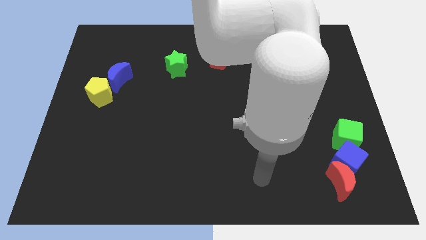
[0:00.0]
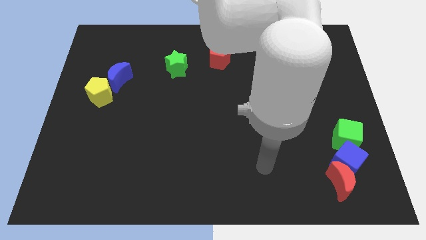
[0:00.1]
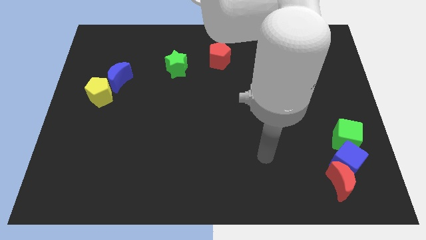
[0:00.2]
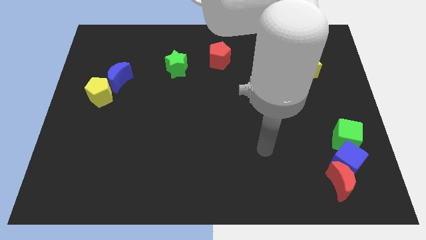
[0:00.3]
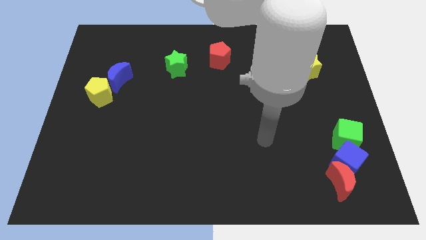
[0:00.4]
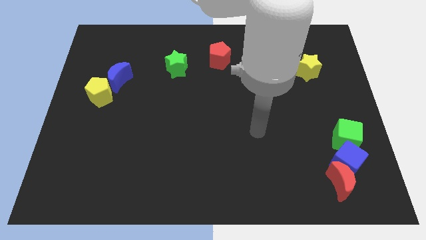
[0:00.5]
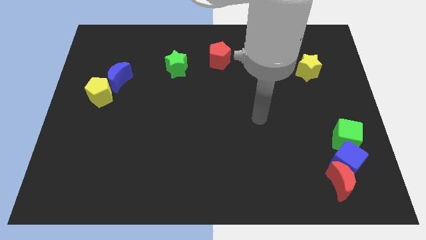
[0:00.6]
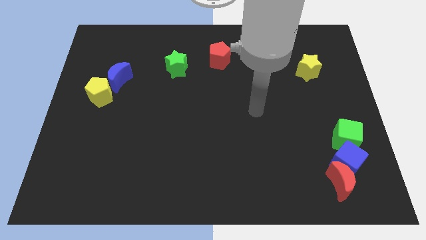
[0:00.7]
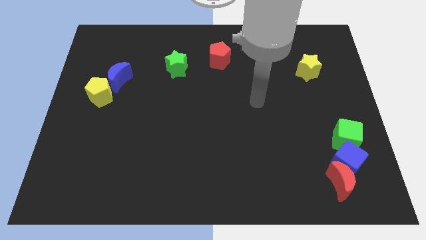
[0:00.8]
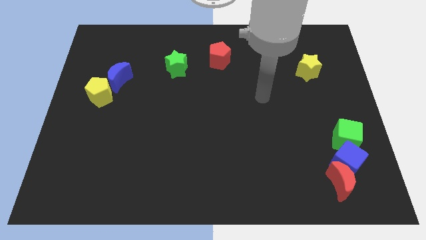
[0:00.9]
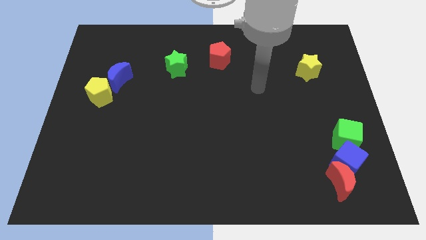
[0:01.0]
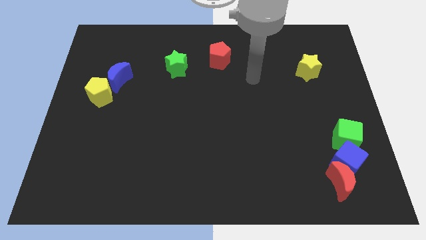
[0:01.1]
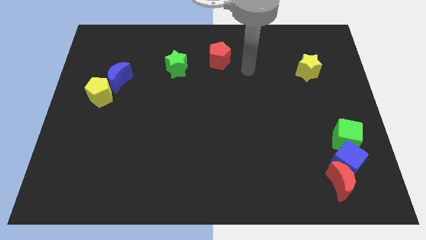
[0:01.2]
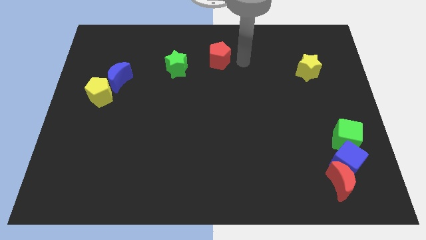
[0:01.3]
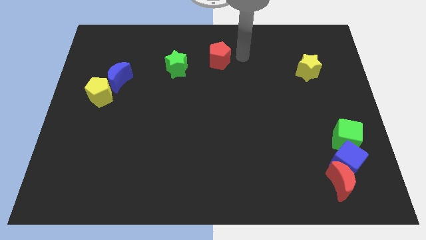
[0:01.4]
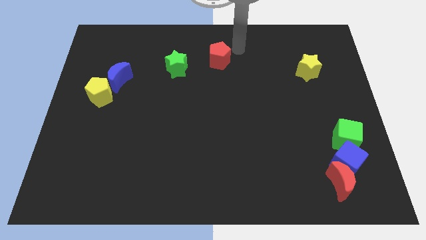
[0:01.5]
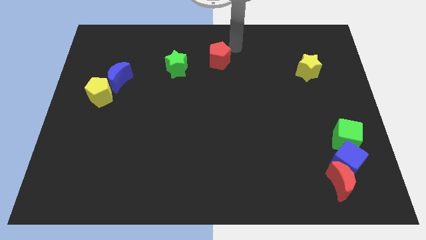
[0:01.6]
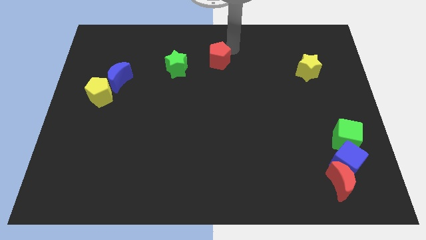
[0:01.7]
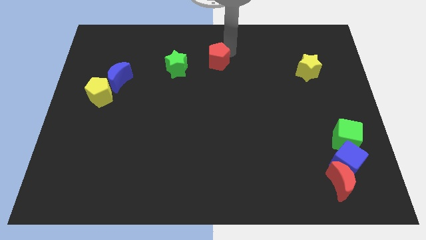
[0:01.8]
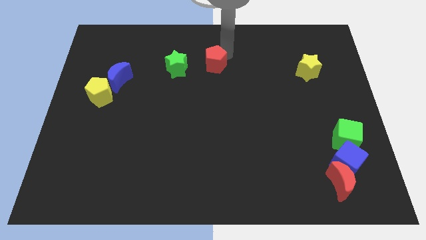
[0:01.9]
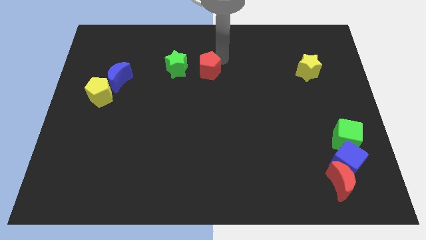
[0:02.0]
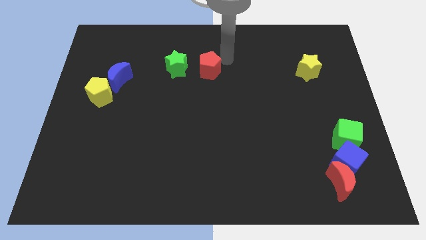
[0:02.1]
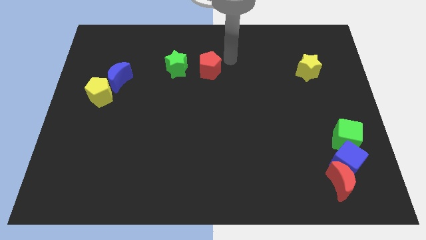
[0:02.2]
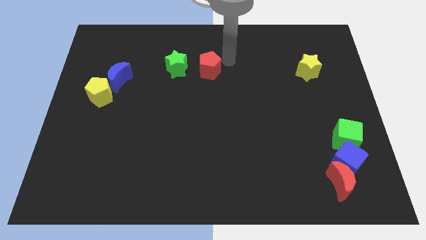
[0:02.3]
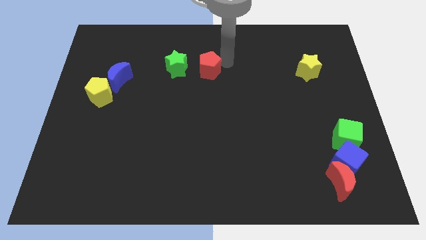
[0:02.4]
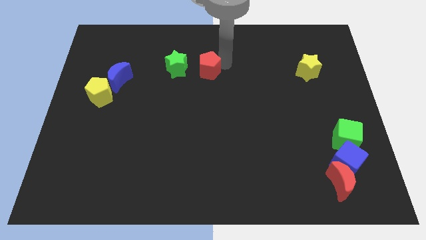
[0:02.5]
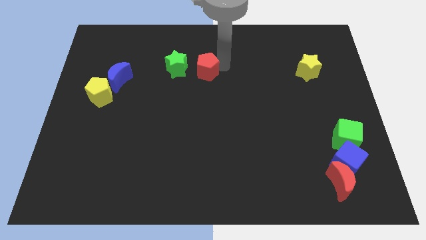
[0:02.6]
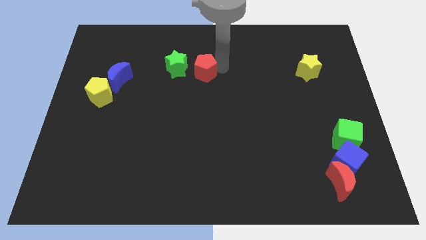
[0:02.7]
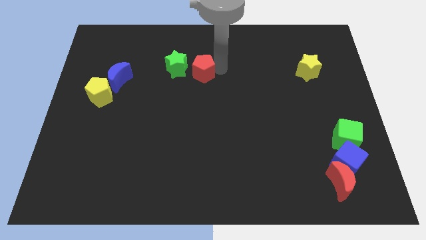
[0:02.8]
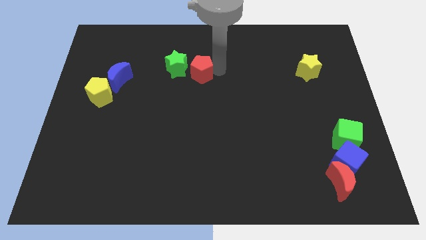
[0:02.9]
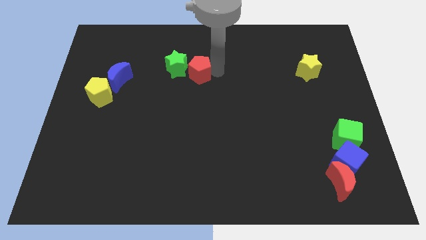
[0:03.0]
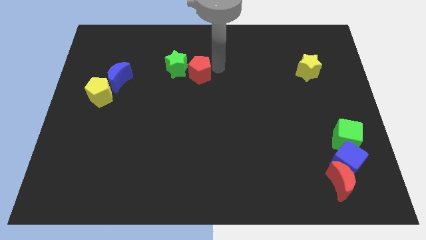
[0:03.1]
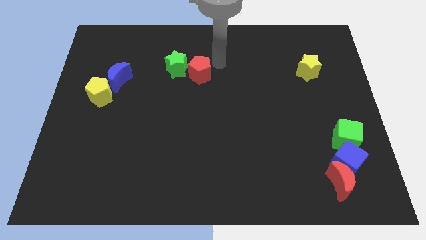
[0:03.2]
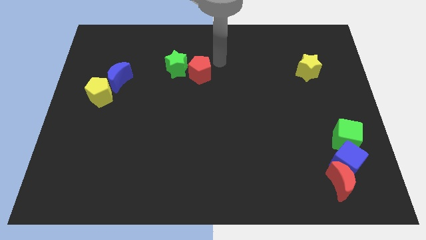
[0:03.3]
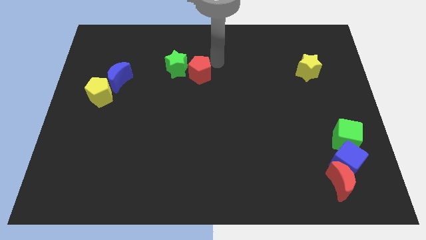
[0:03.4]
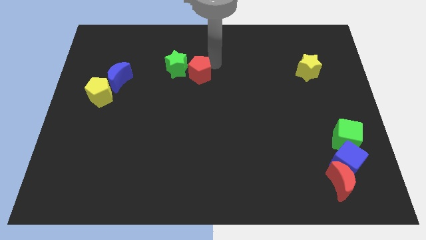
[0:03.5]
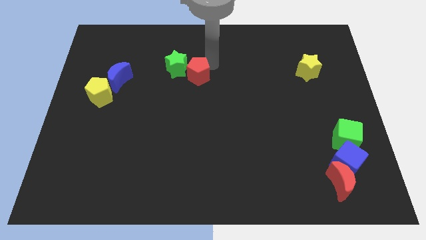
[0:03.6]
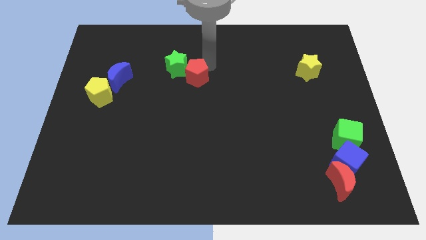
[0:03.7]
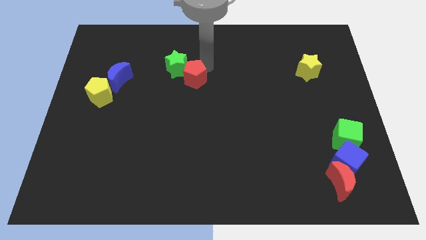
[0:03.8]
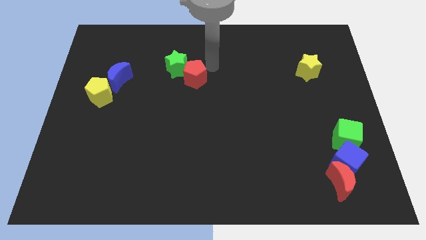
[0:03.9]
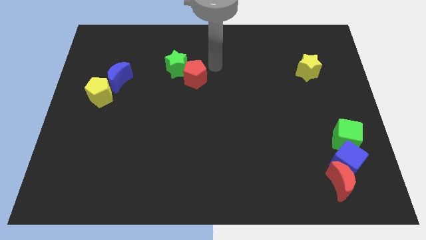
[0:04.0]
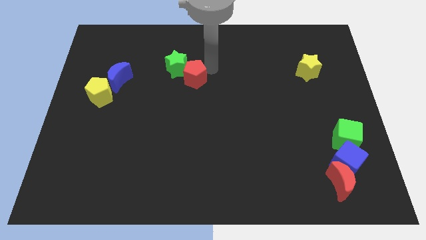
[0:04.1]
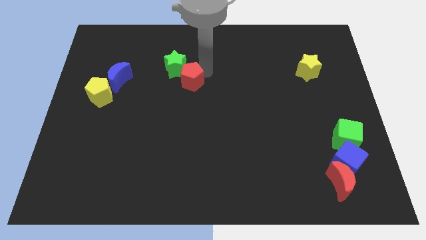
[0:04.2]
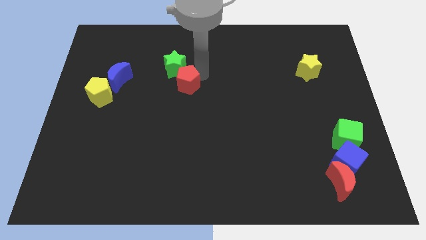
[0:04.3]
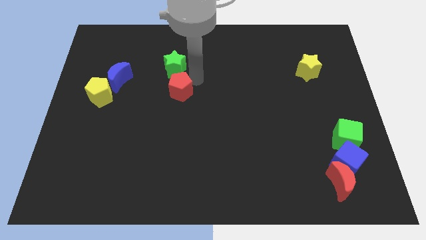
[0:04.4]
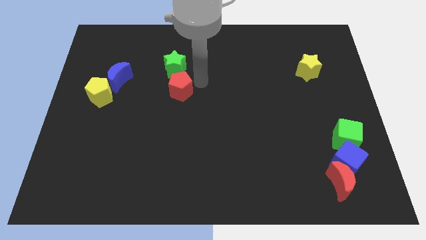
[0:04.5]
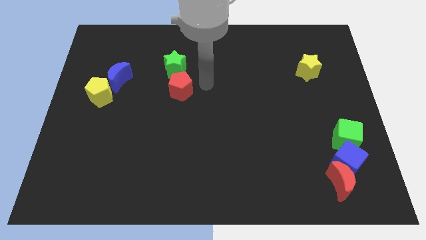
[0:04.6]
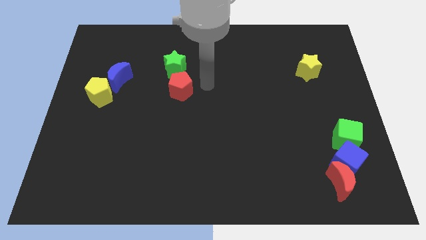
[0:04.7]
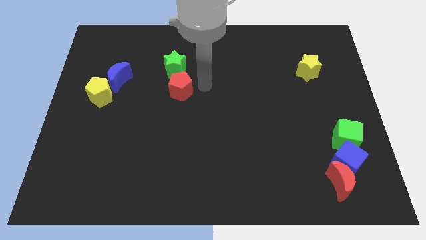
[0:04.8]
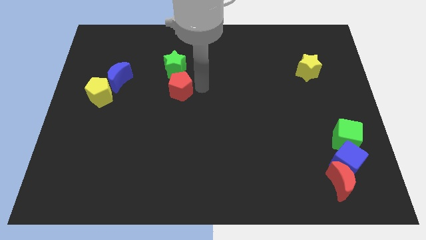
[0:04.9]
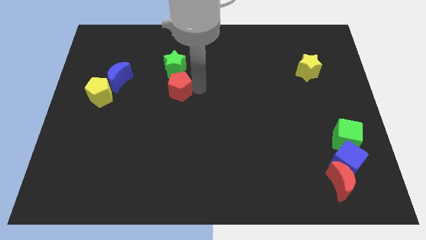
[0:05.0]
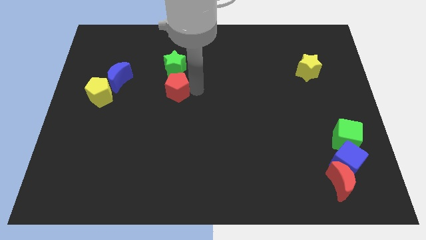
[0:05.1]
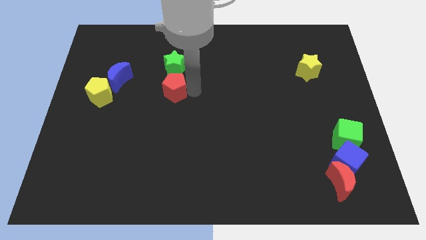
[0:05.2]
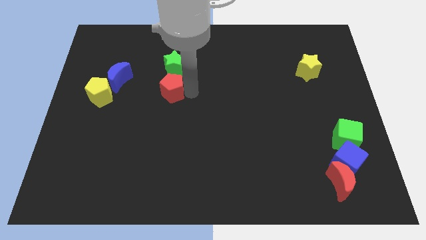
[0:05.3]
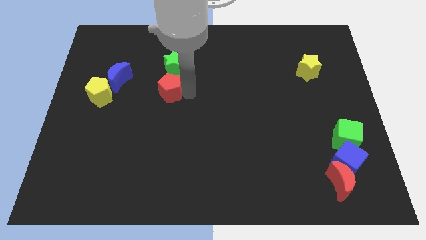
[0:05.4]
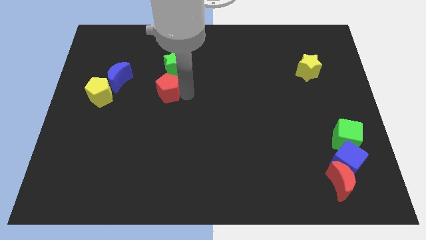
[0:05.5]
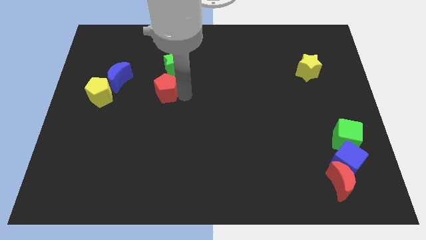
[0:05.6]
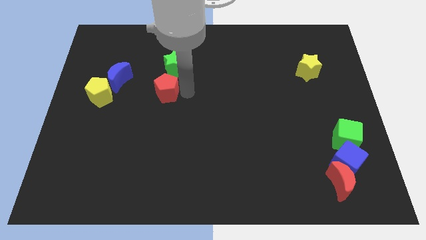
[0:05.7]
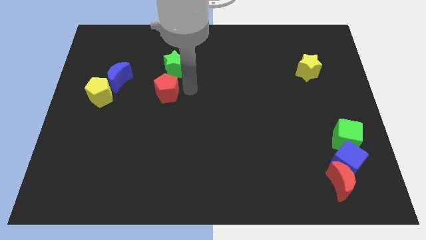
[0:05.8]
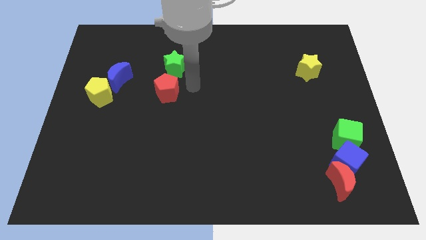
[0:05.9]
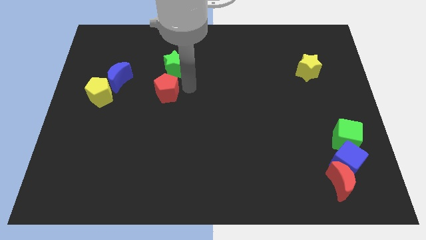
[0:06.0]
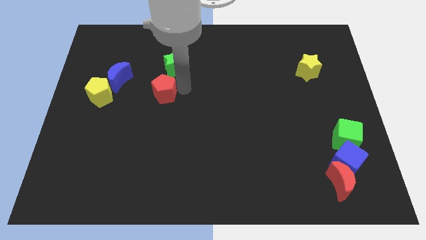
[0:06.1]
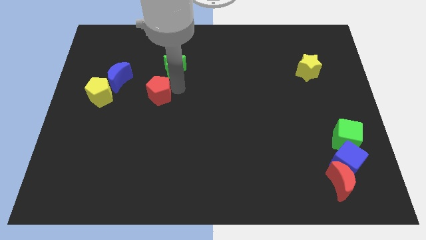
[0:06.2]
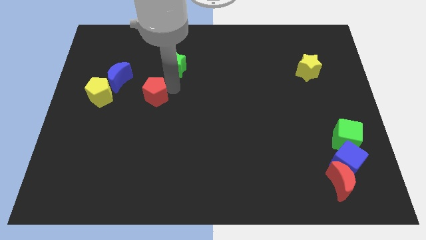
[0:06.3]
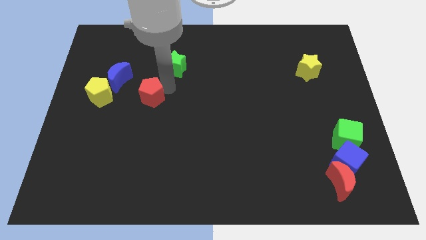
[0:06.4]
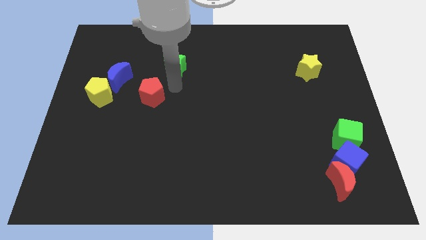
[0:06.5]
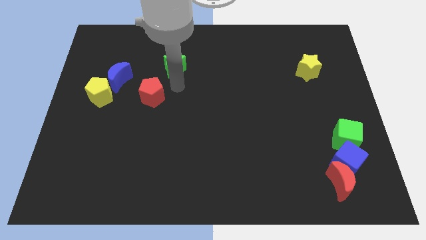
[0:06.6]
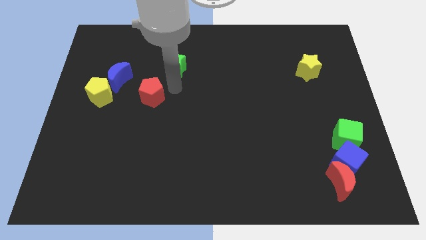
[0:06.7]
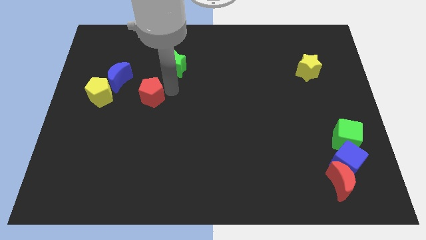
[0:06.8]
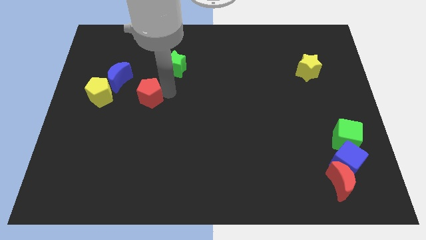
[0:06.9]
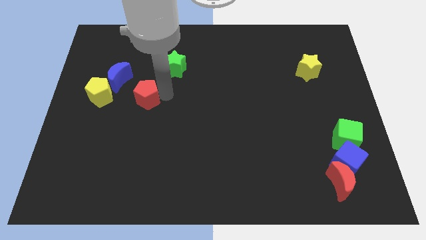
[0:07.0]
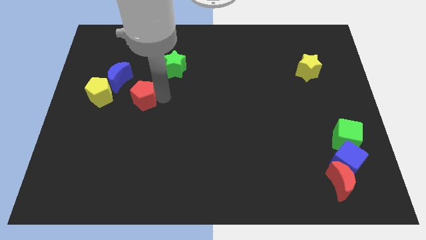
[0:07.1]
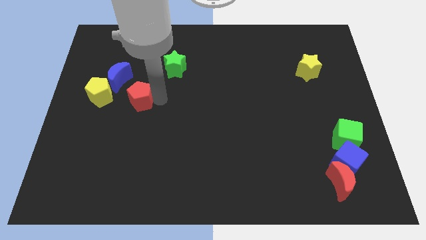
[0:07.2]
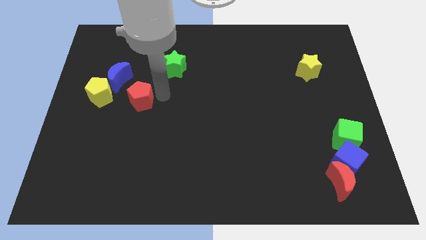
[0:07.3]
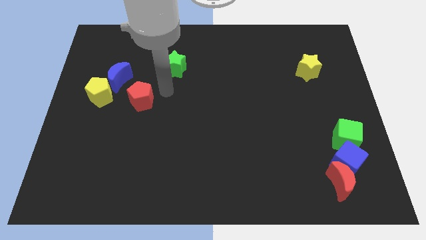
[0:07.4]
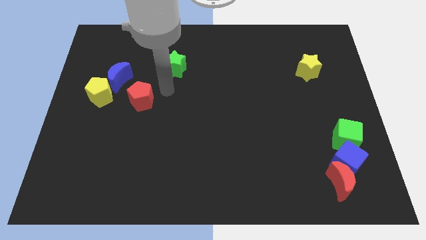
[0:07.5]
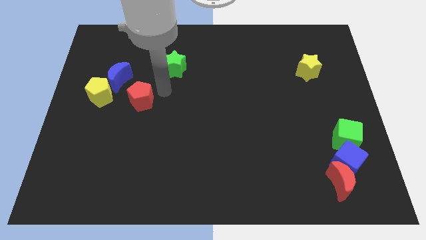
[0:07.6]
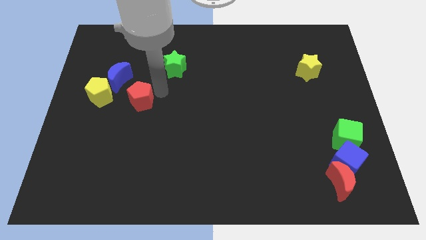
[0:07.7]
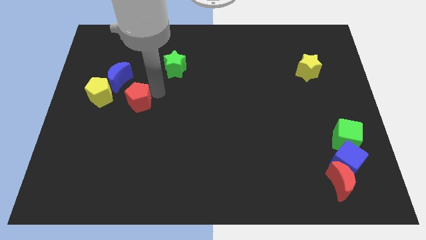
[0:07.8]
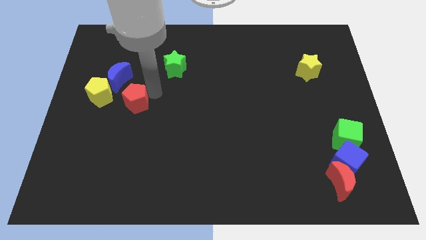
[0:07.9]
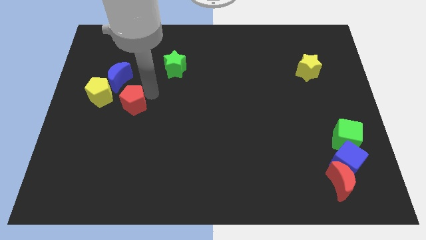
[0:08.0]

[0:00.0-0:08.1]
put the red pentagon to the bottom of the blue moon
